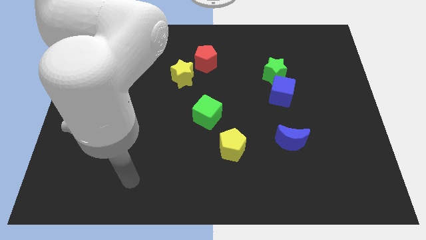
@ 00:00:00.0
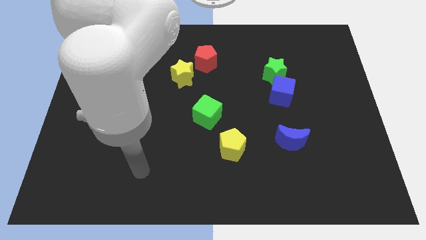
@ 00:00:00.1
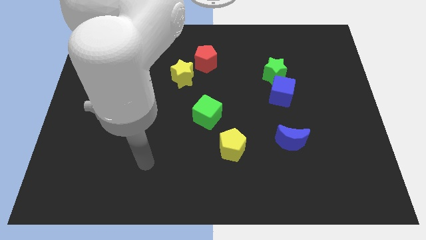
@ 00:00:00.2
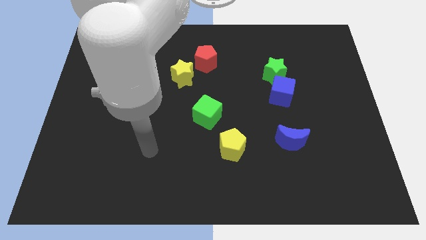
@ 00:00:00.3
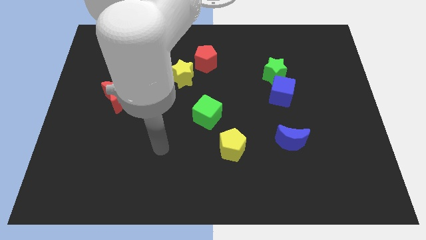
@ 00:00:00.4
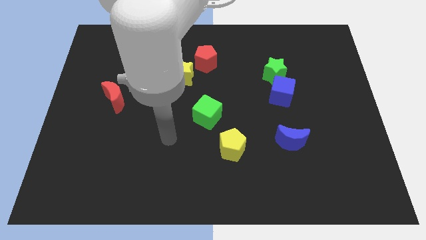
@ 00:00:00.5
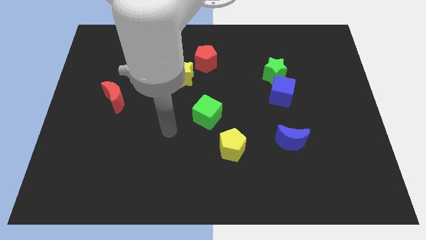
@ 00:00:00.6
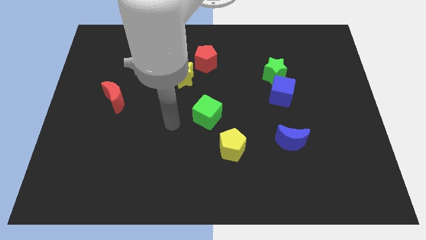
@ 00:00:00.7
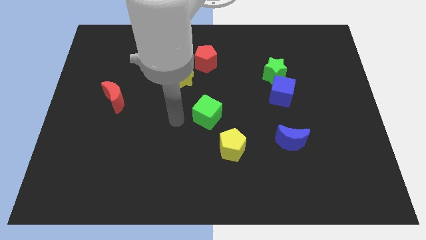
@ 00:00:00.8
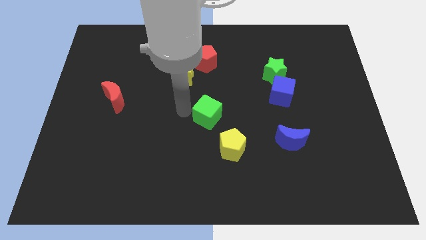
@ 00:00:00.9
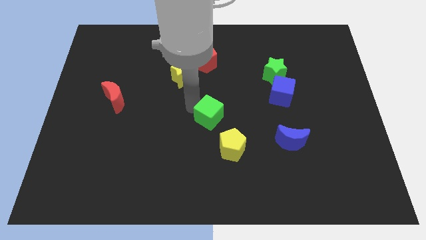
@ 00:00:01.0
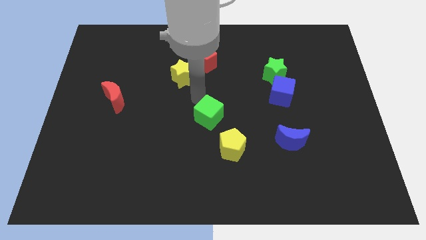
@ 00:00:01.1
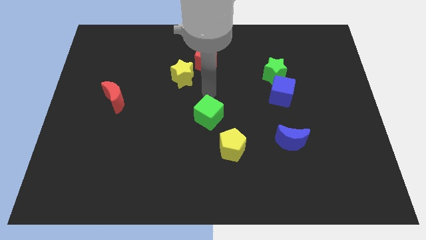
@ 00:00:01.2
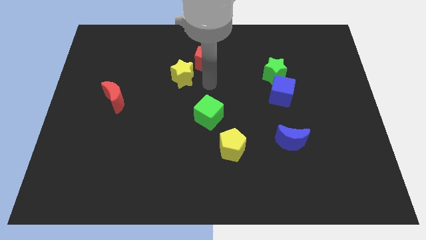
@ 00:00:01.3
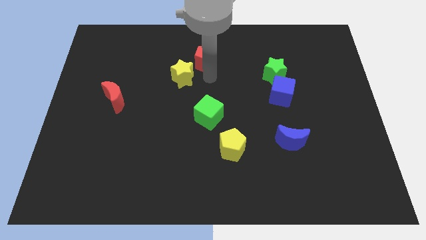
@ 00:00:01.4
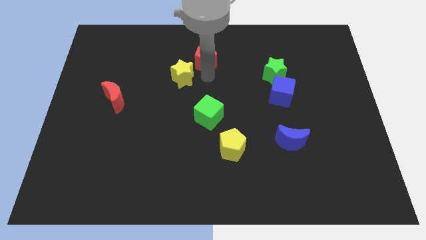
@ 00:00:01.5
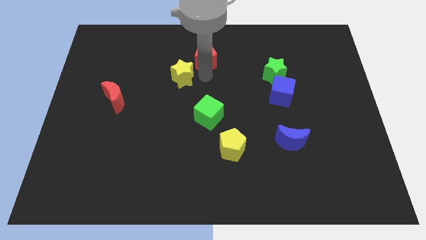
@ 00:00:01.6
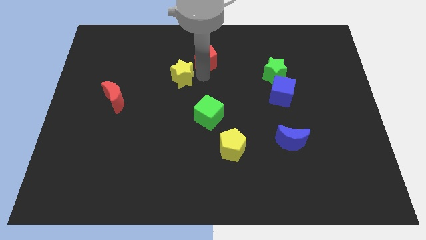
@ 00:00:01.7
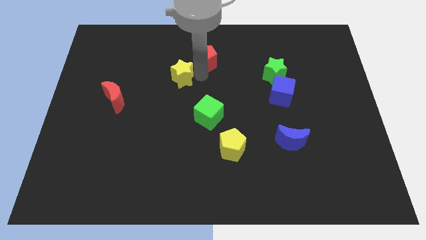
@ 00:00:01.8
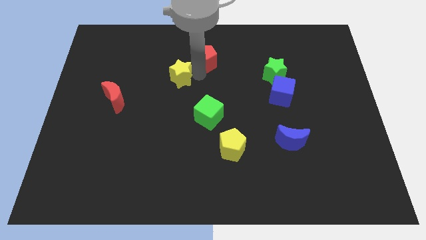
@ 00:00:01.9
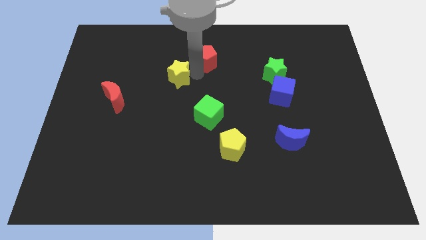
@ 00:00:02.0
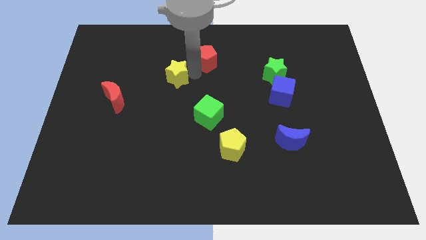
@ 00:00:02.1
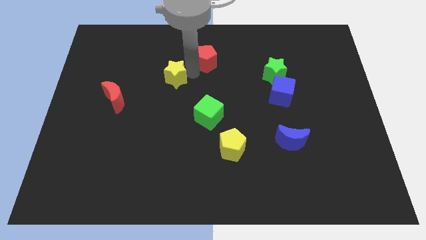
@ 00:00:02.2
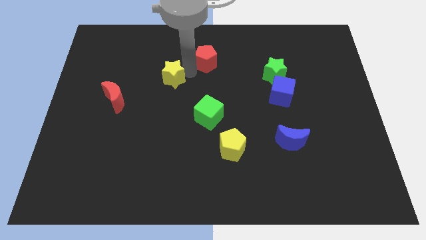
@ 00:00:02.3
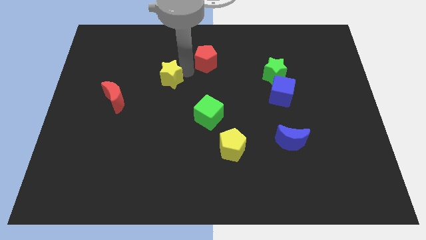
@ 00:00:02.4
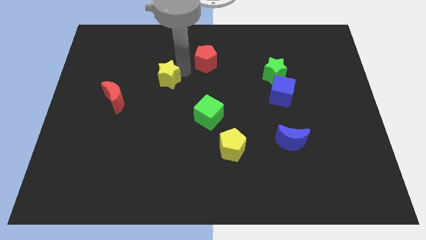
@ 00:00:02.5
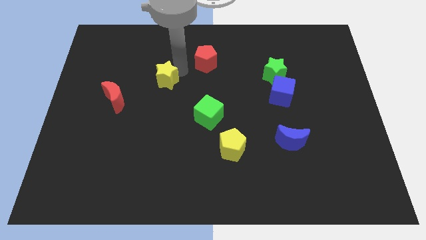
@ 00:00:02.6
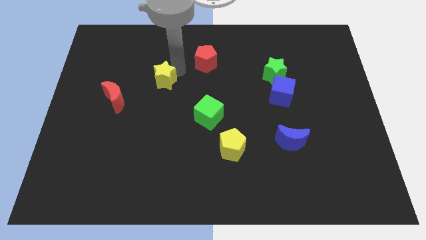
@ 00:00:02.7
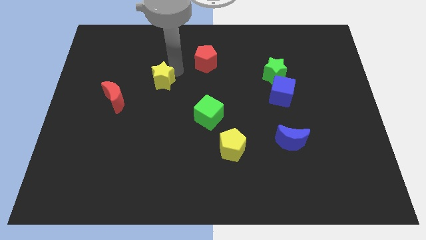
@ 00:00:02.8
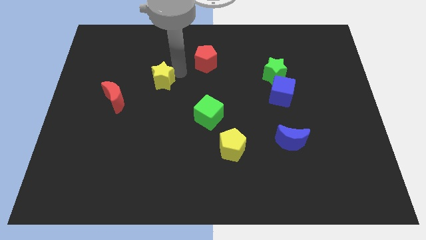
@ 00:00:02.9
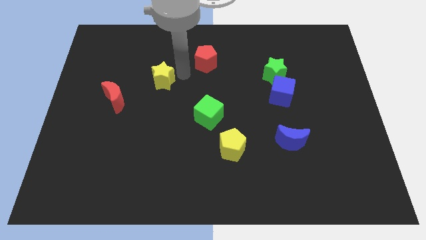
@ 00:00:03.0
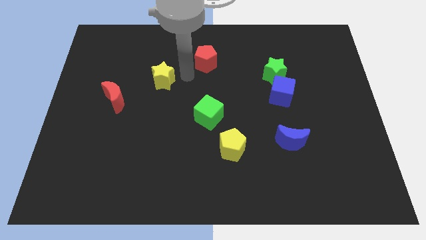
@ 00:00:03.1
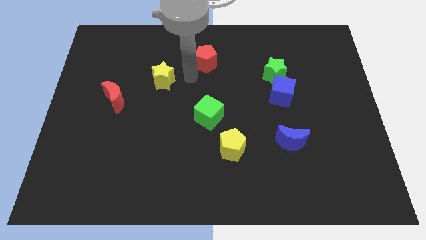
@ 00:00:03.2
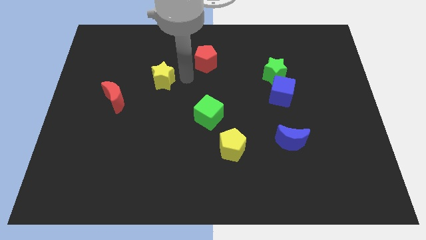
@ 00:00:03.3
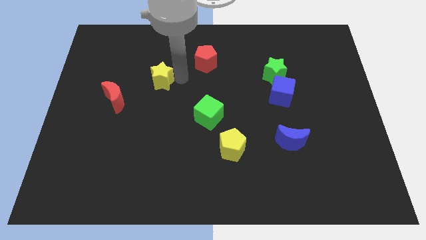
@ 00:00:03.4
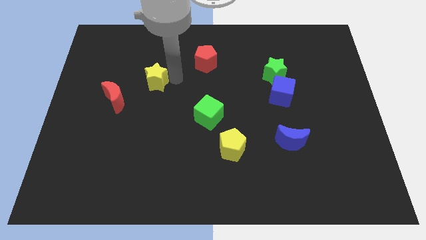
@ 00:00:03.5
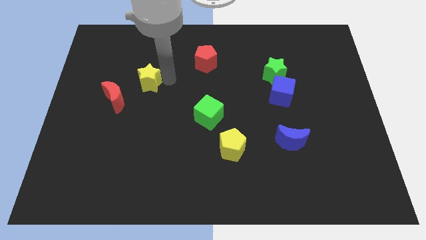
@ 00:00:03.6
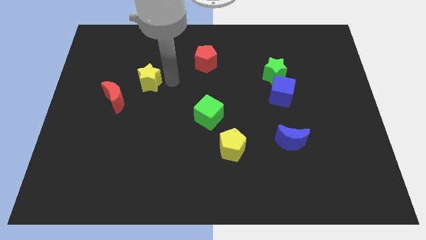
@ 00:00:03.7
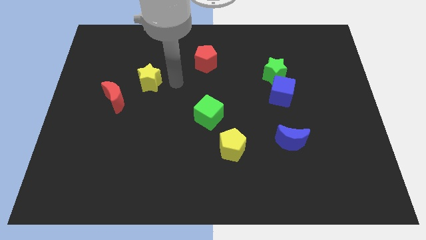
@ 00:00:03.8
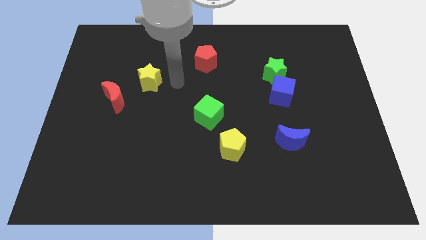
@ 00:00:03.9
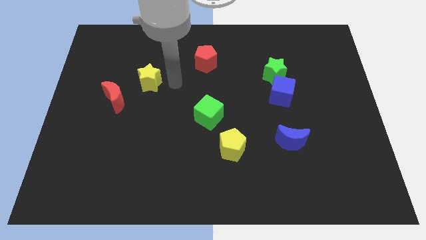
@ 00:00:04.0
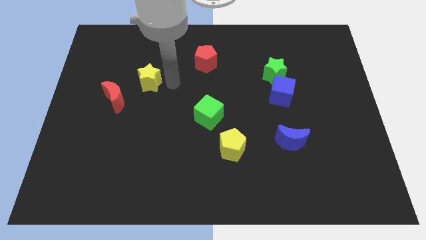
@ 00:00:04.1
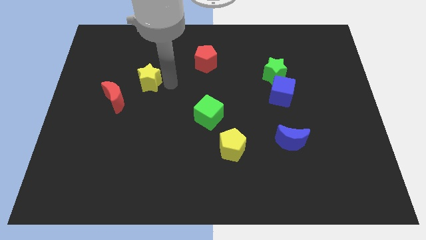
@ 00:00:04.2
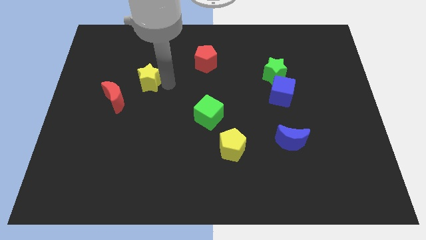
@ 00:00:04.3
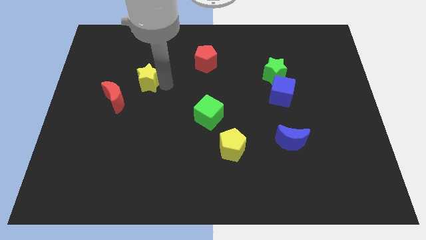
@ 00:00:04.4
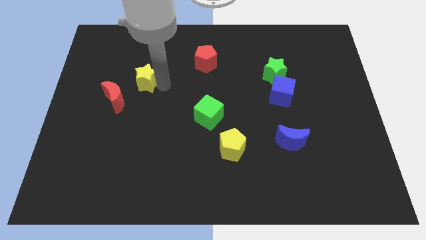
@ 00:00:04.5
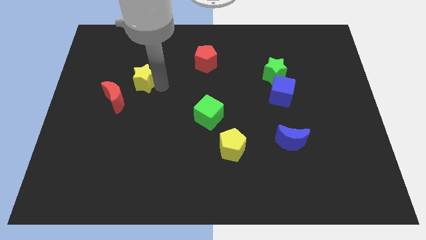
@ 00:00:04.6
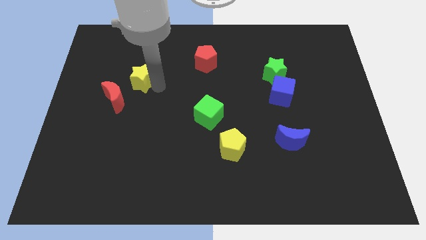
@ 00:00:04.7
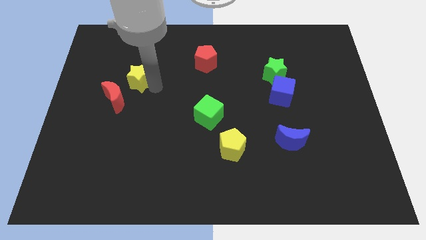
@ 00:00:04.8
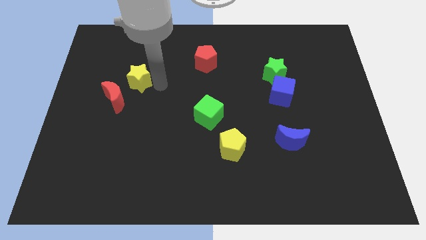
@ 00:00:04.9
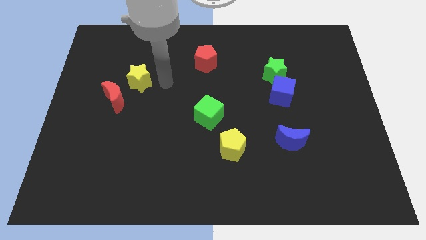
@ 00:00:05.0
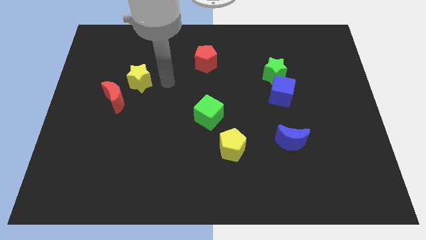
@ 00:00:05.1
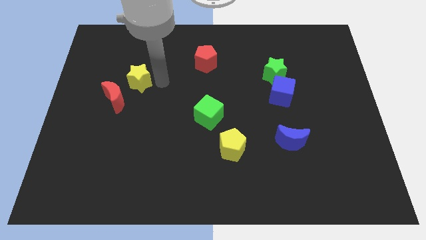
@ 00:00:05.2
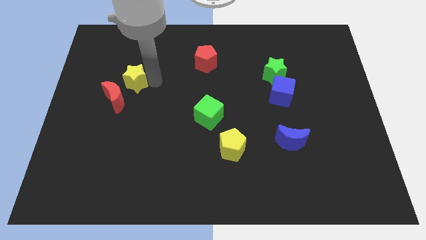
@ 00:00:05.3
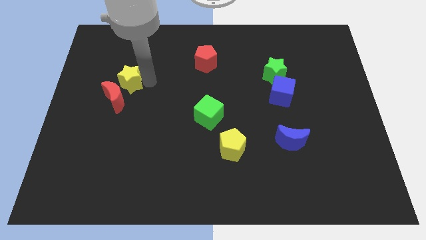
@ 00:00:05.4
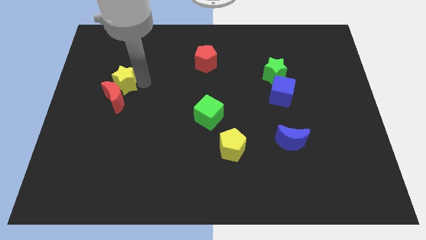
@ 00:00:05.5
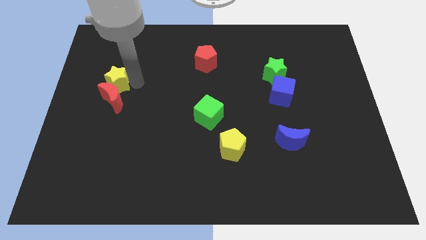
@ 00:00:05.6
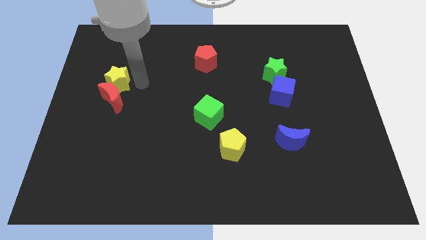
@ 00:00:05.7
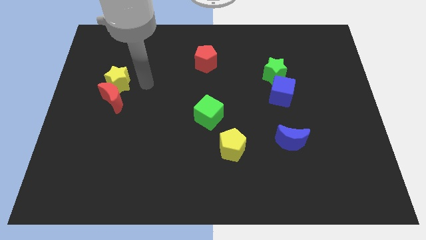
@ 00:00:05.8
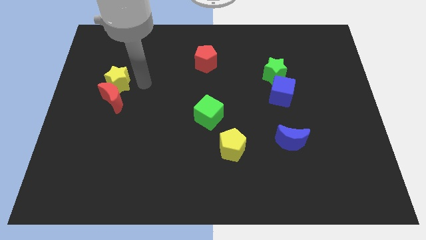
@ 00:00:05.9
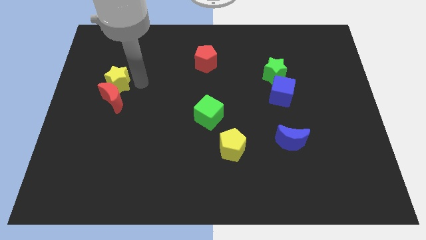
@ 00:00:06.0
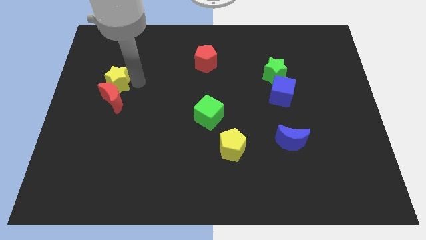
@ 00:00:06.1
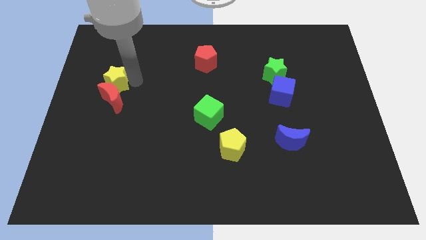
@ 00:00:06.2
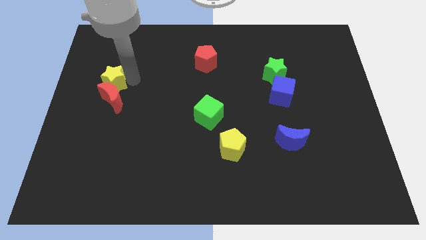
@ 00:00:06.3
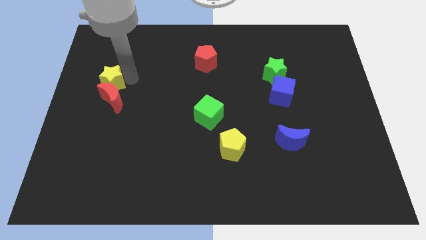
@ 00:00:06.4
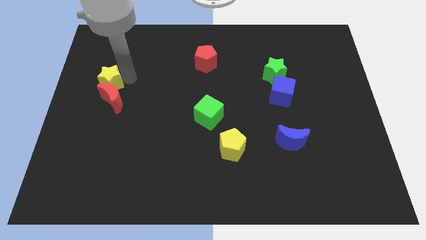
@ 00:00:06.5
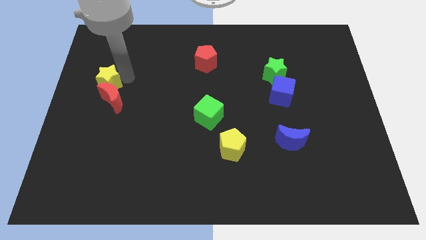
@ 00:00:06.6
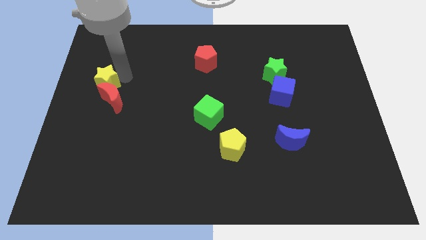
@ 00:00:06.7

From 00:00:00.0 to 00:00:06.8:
push the yellow star to the center left
